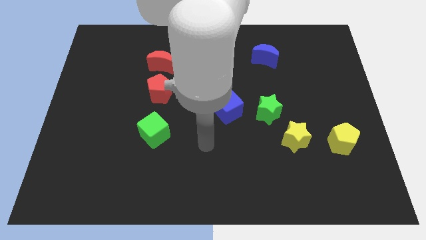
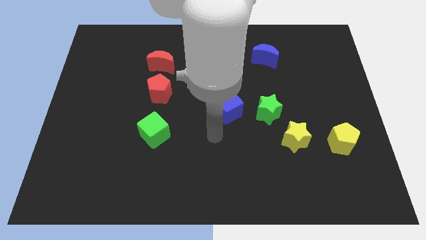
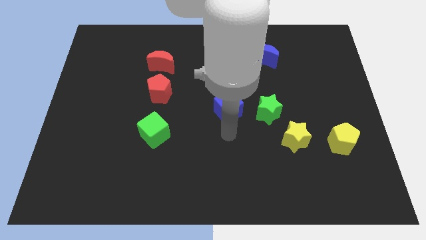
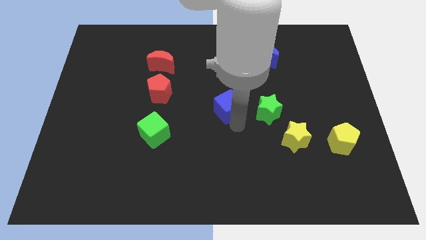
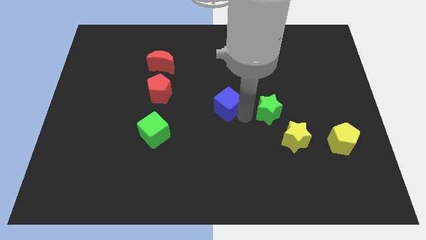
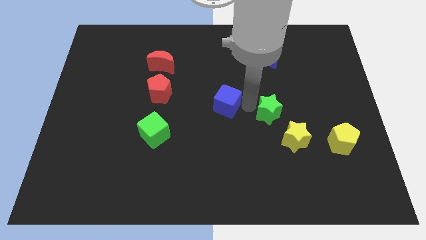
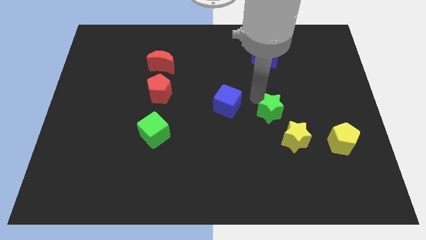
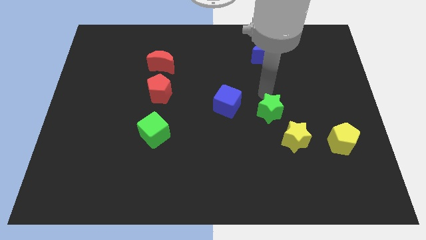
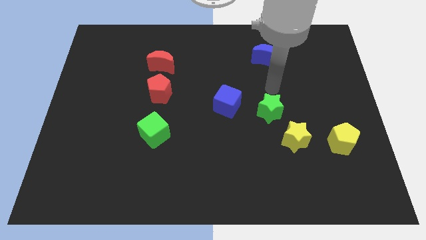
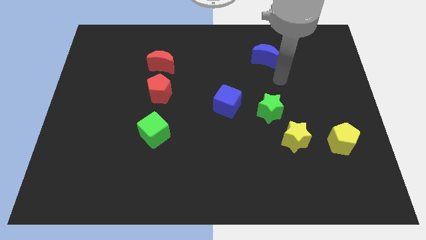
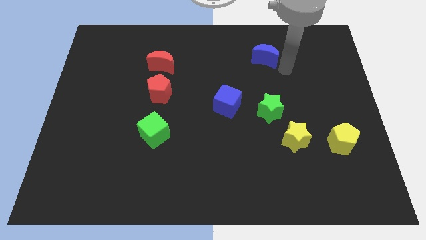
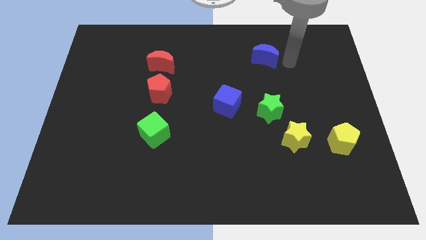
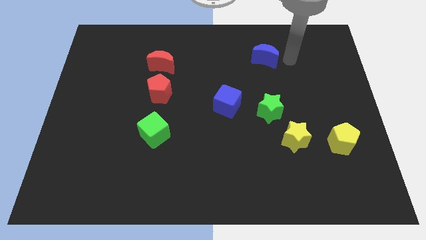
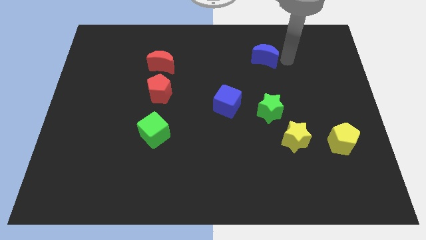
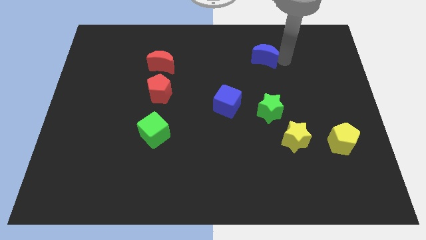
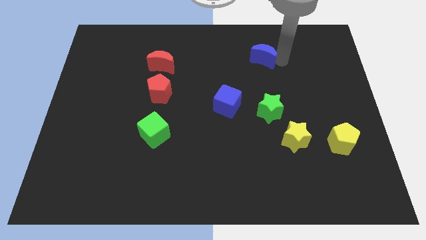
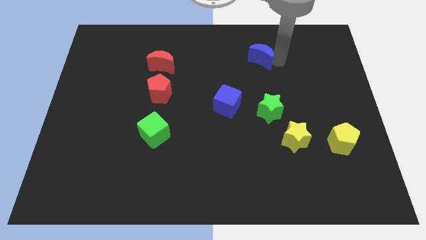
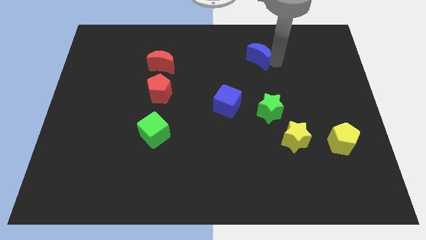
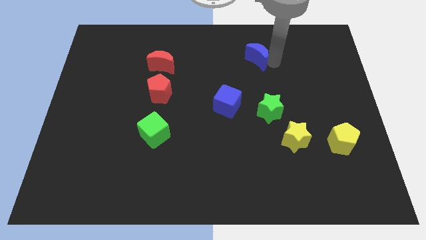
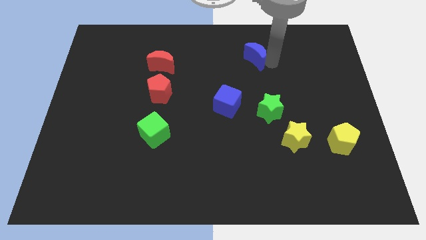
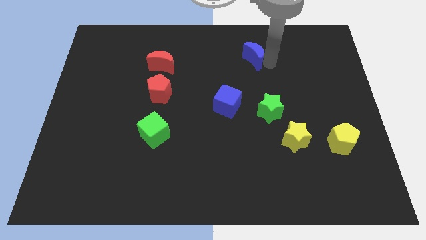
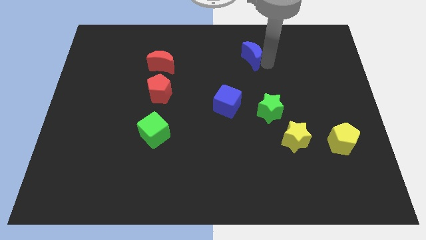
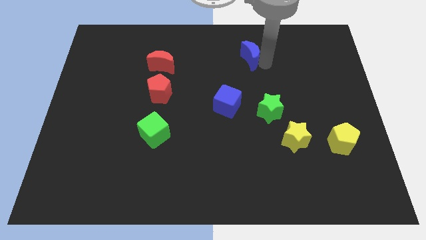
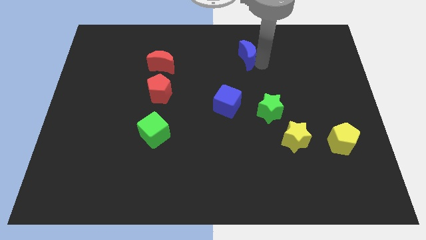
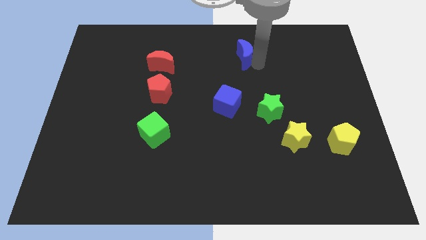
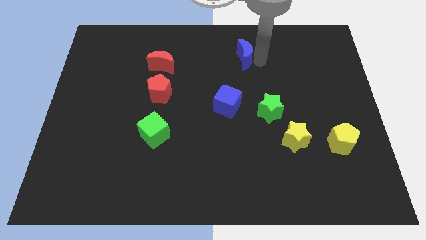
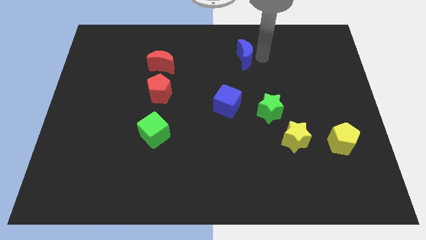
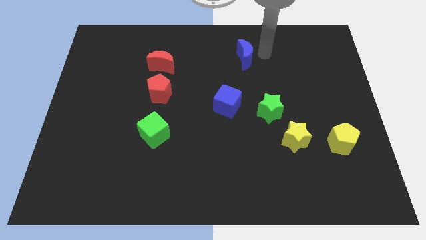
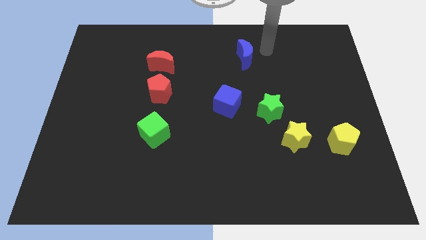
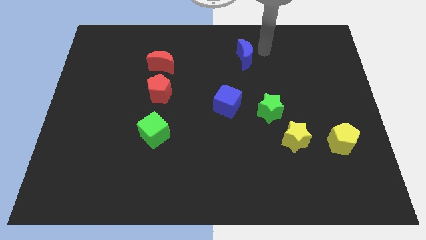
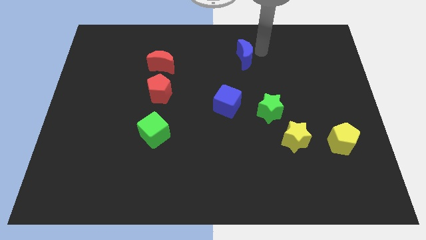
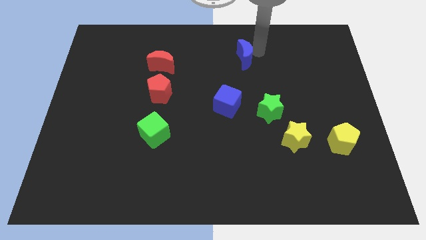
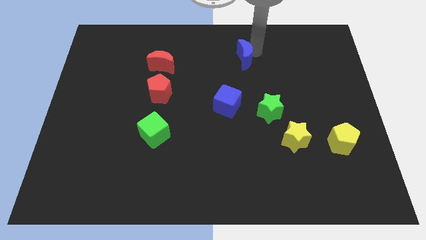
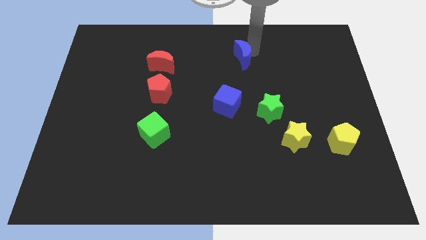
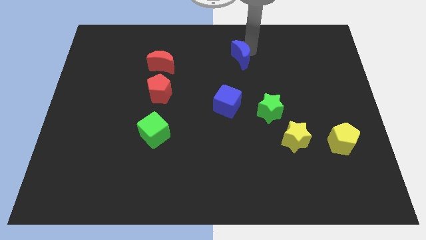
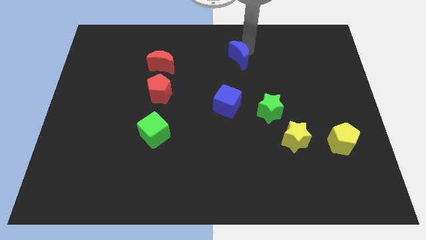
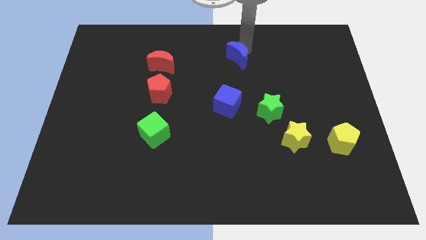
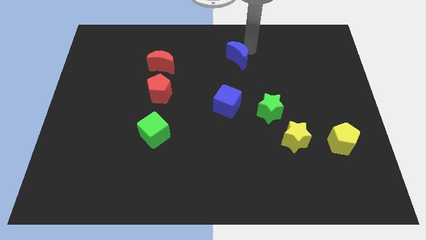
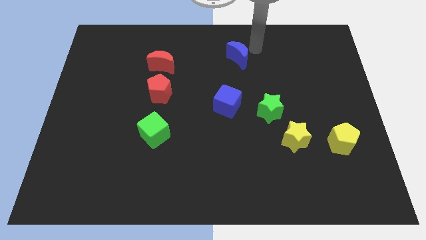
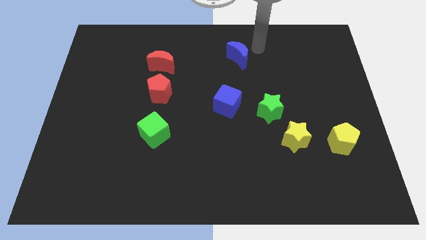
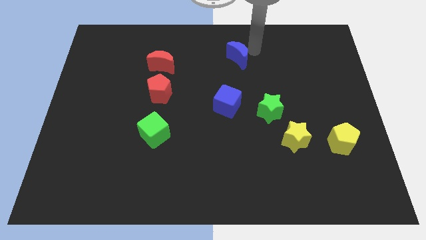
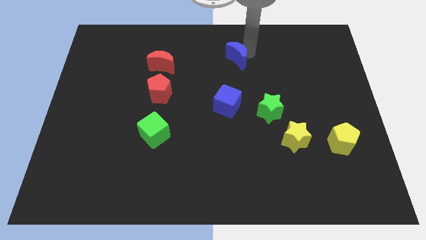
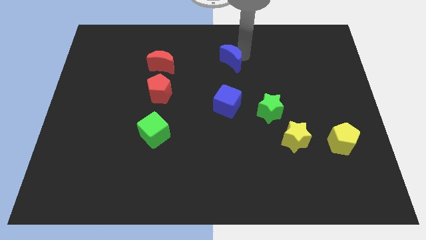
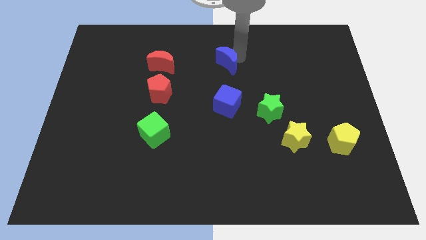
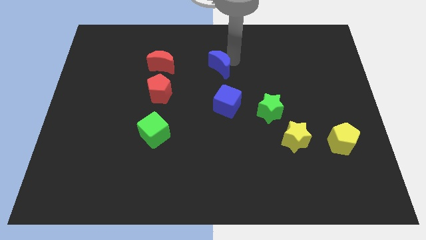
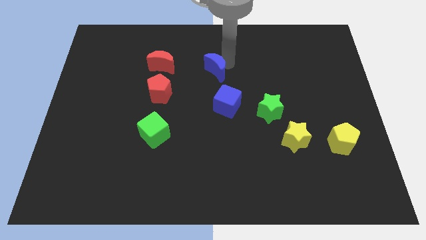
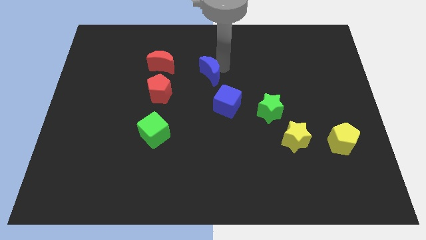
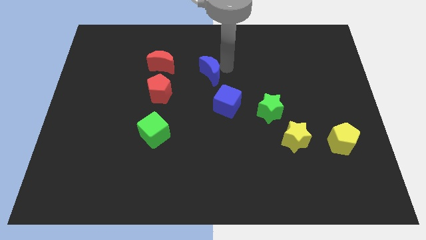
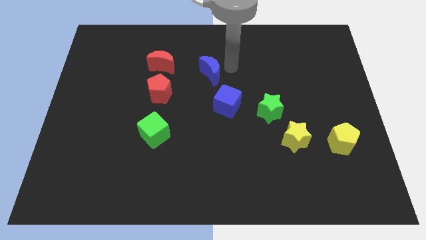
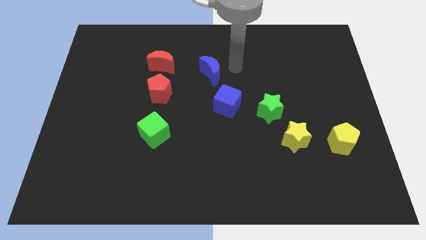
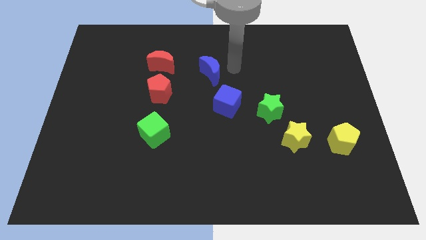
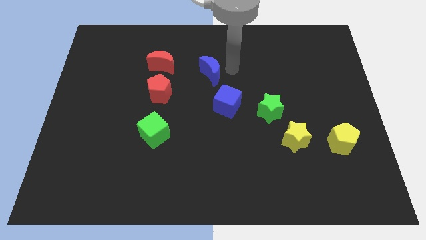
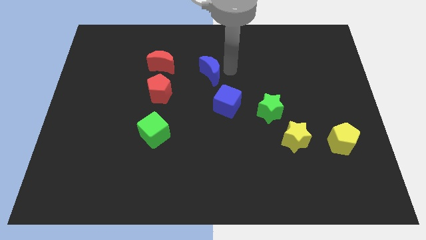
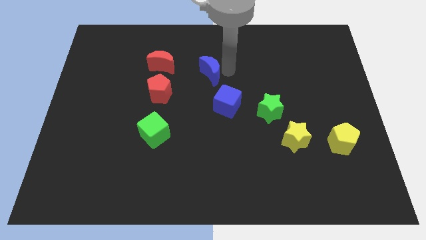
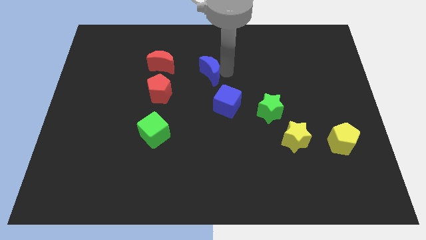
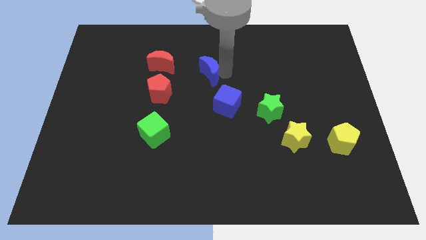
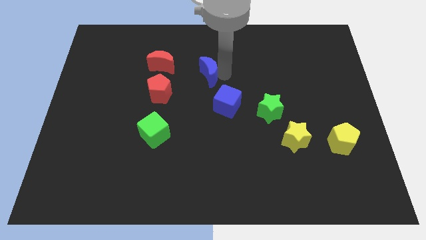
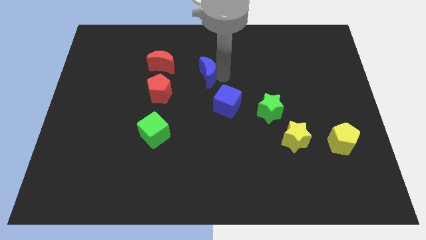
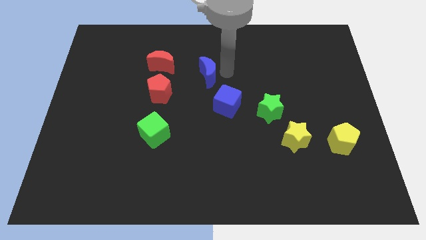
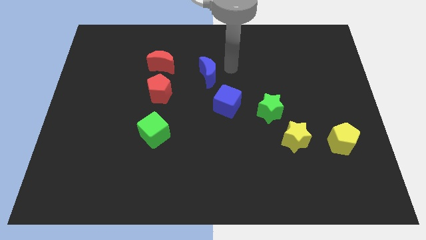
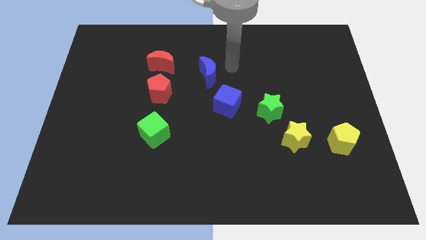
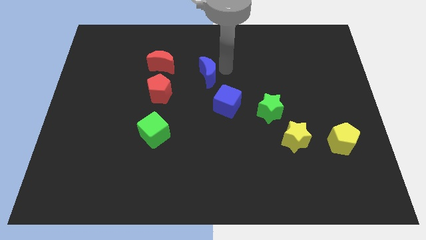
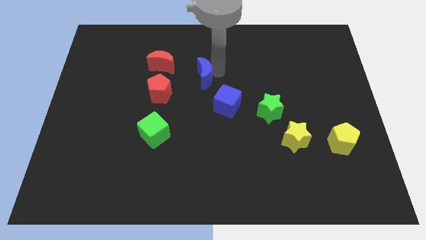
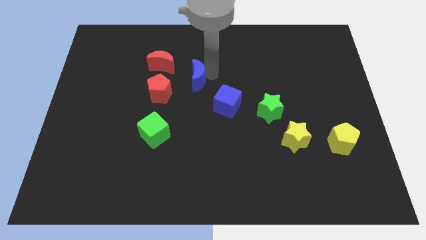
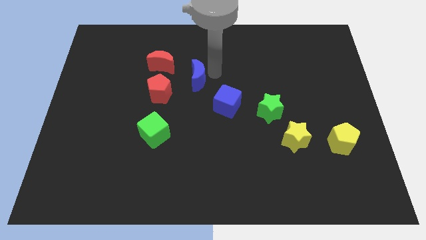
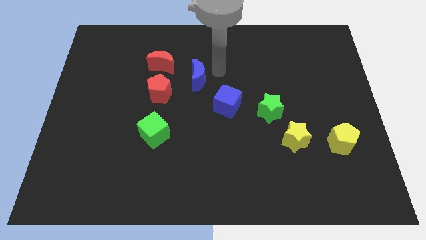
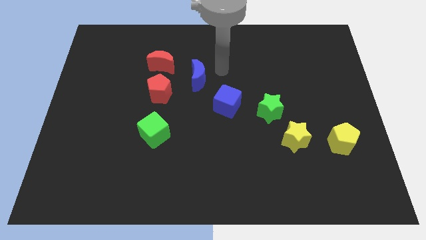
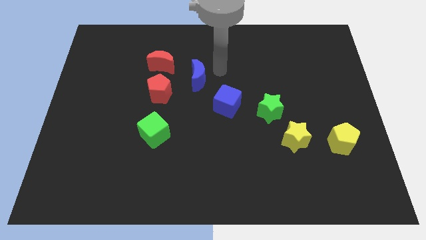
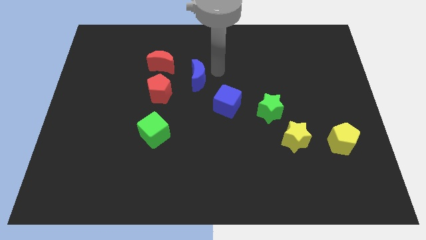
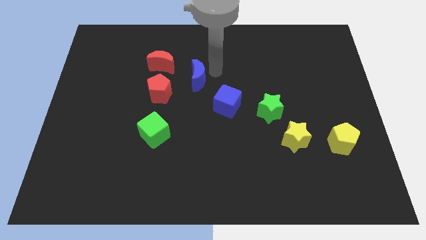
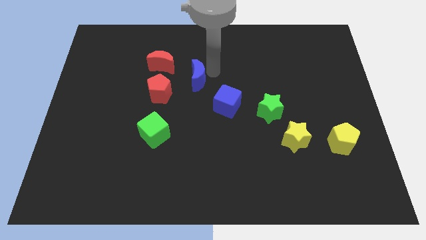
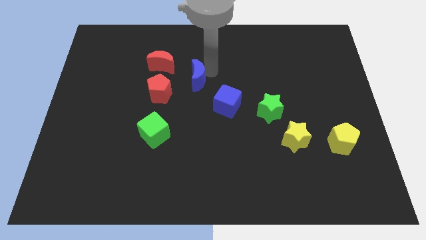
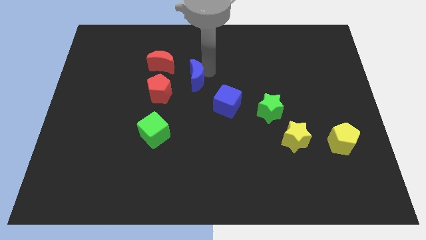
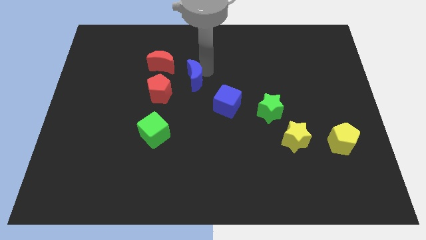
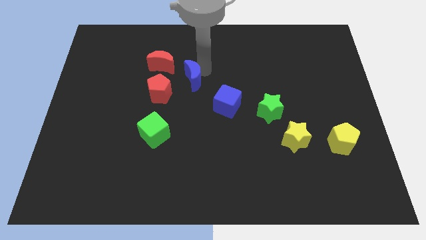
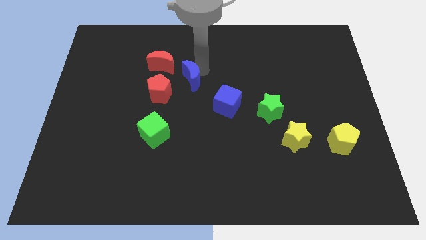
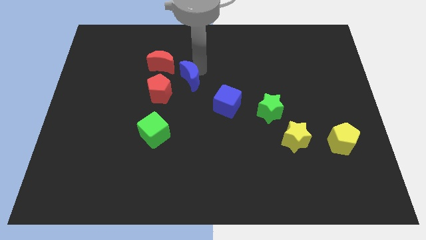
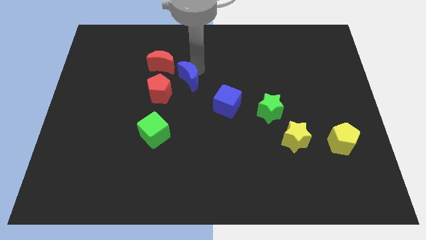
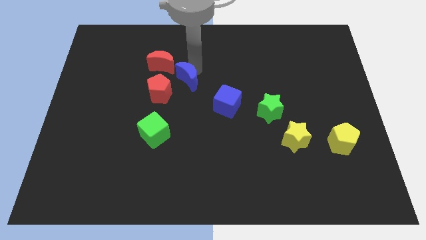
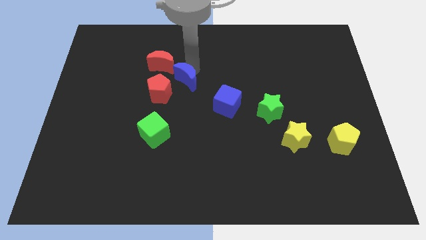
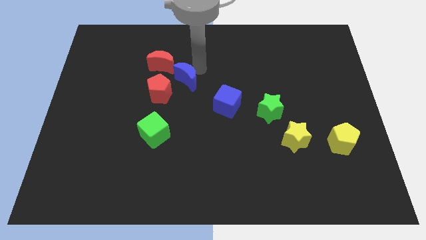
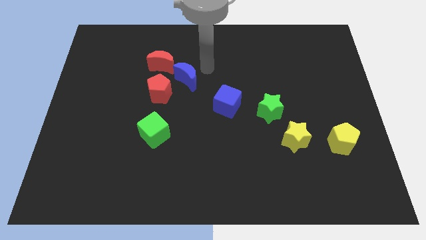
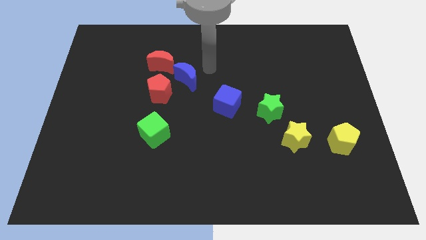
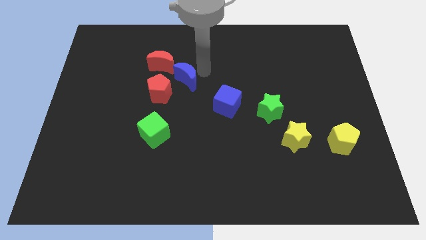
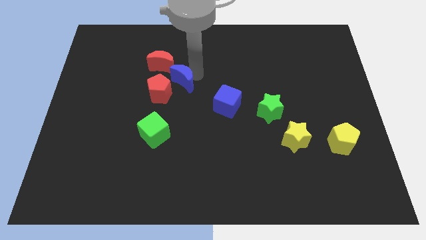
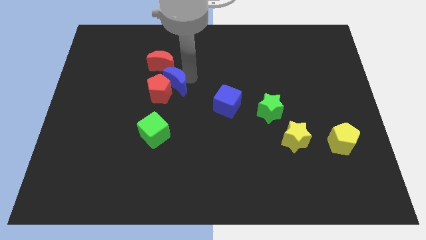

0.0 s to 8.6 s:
slide the blue moon to the red pentagon

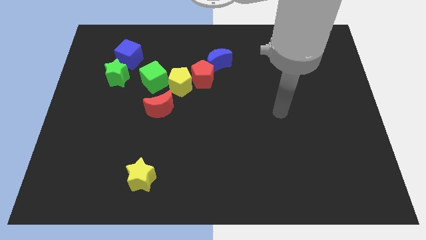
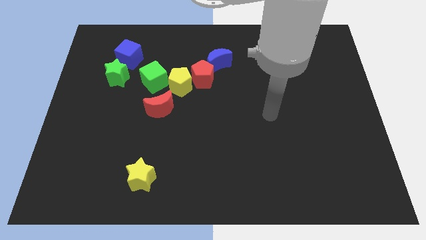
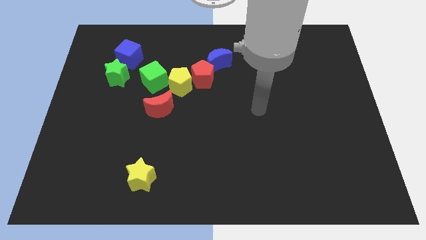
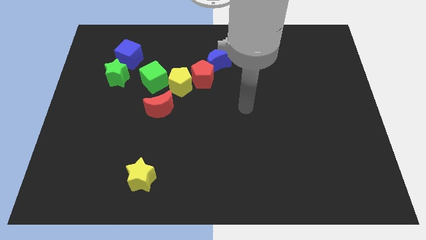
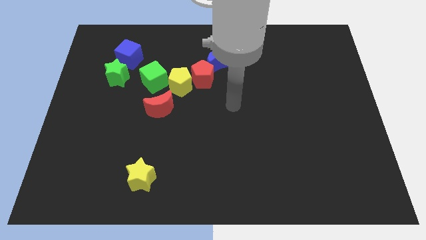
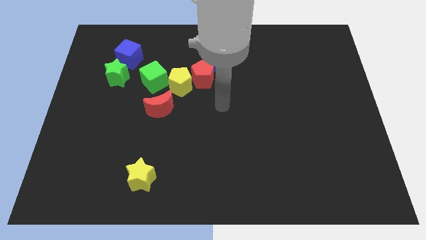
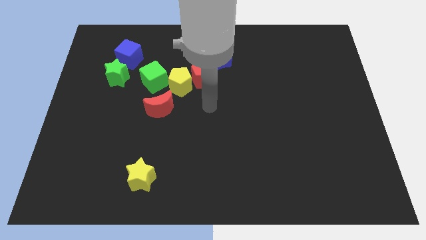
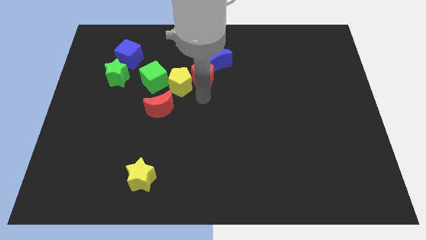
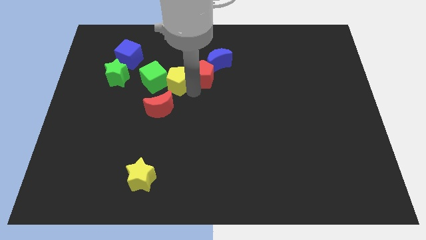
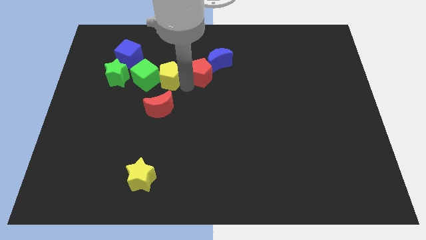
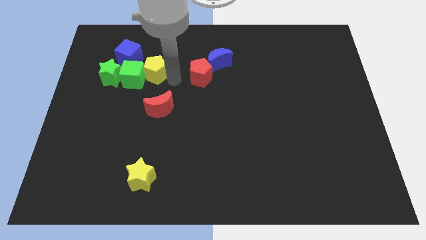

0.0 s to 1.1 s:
move the green cube next to the green star
